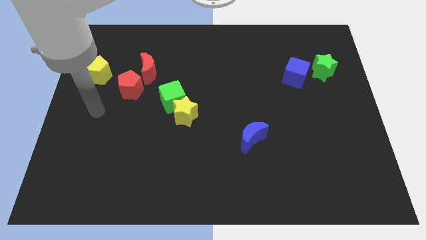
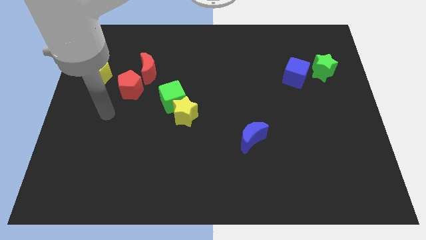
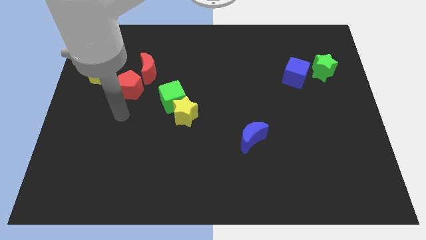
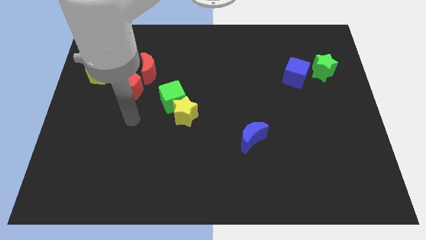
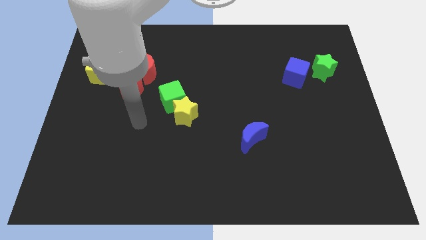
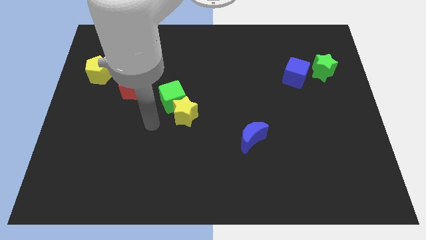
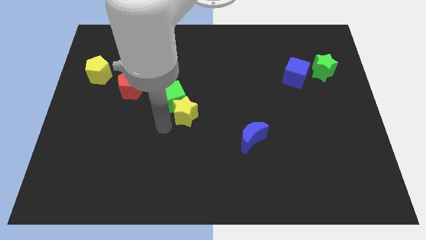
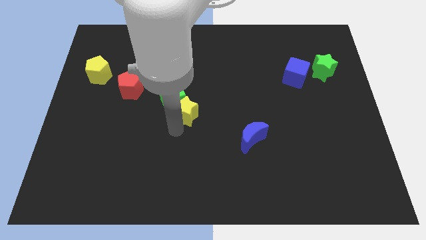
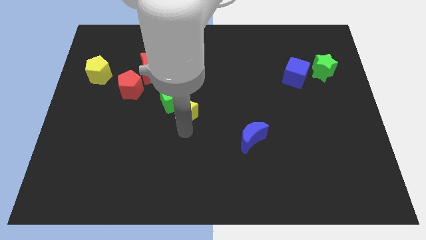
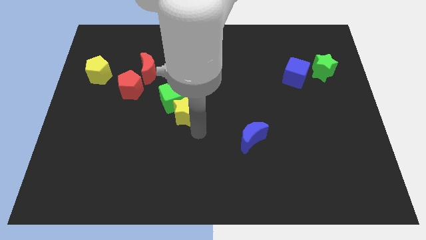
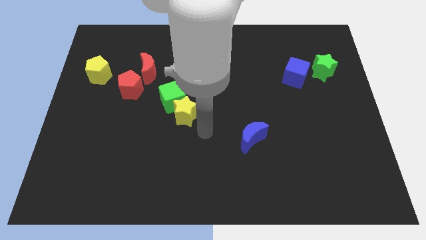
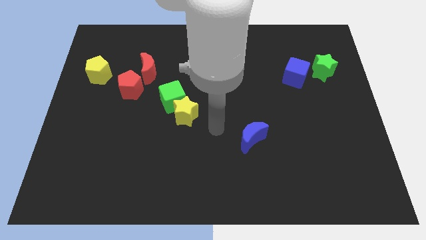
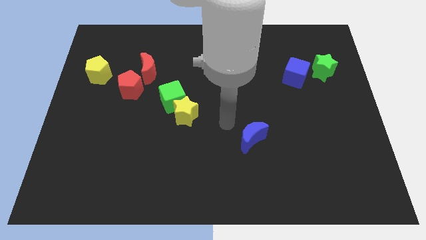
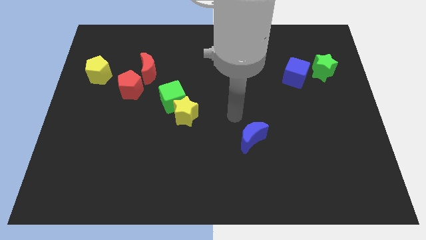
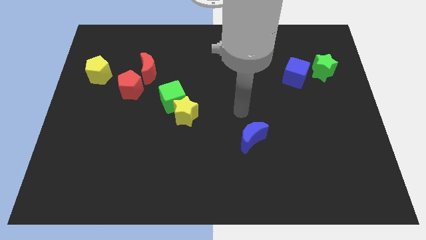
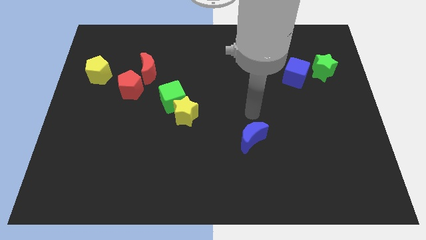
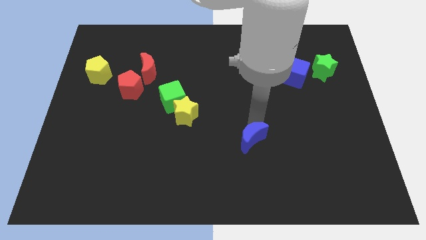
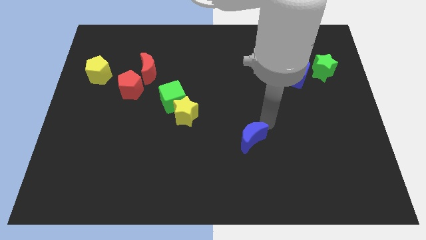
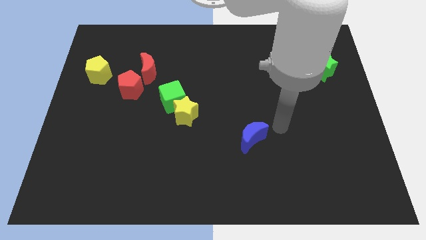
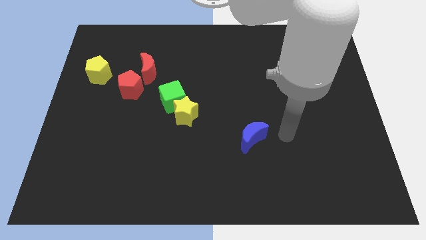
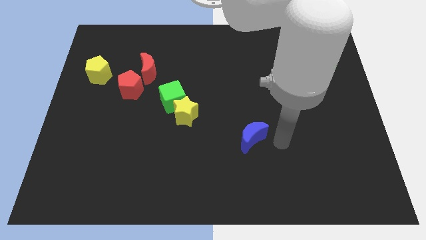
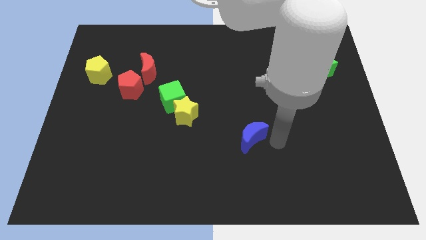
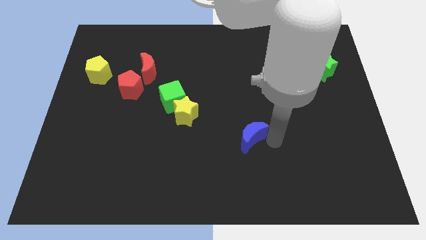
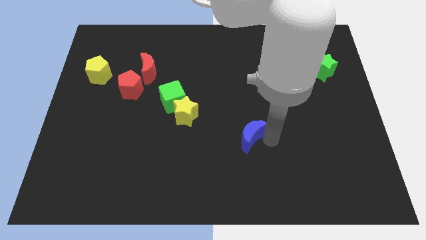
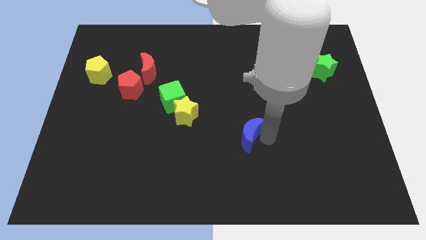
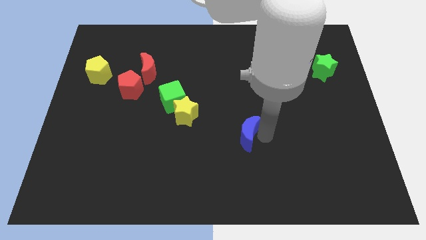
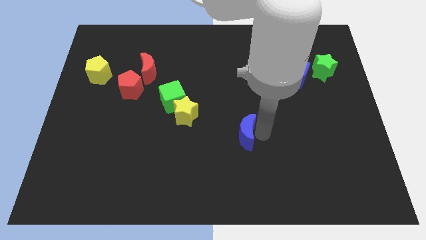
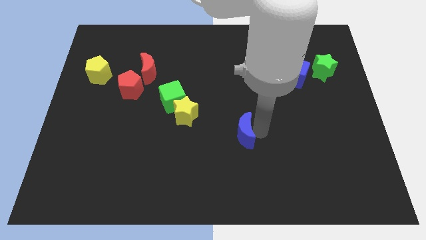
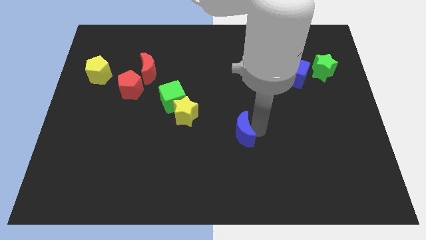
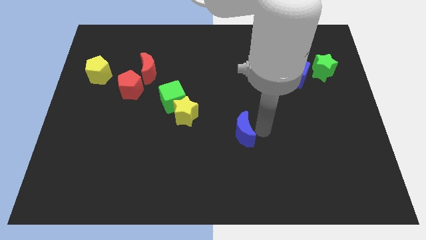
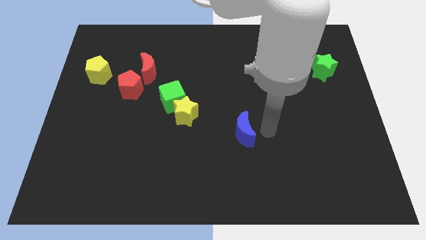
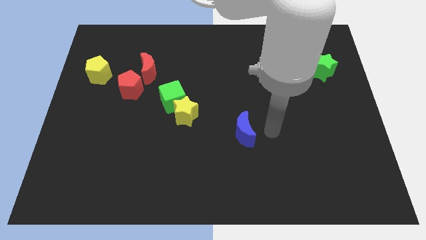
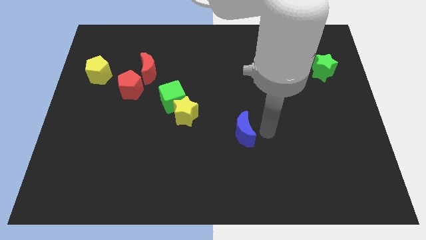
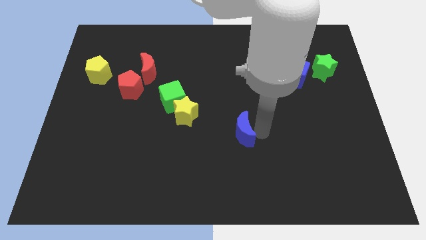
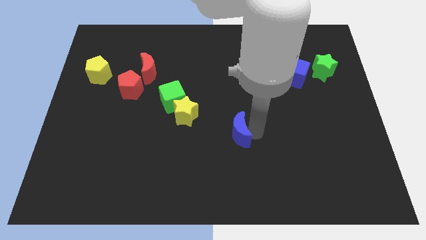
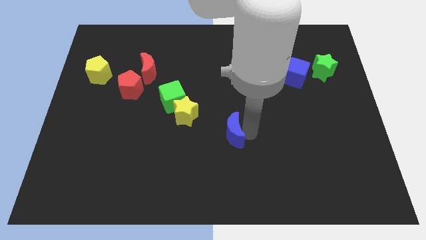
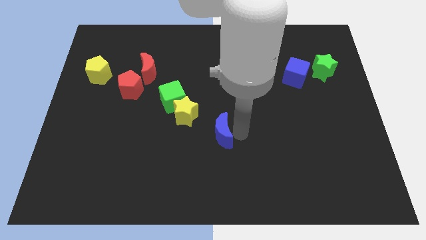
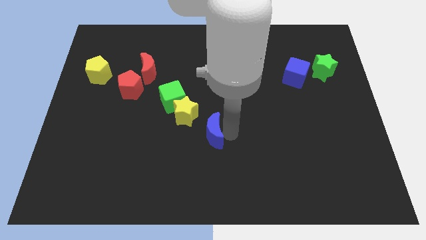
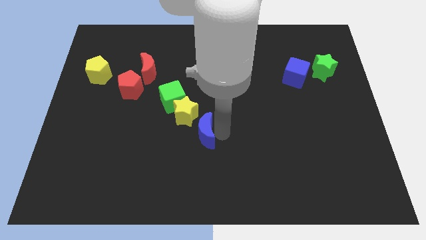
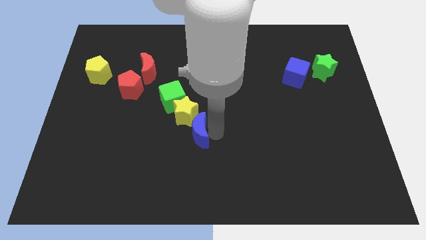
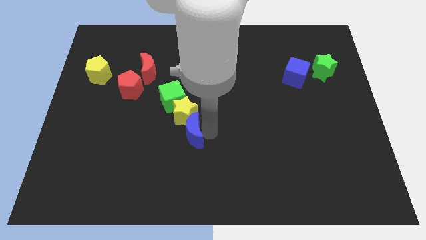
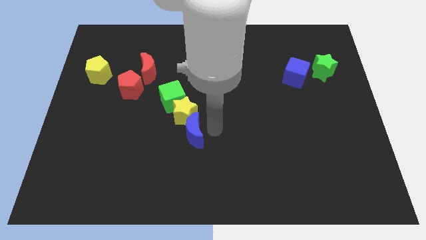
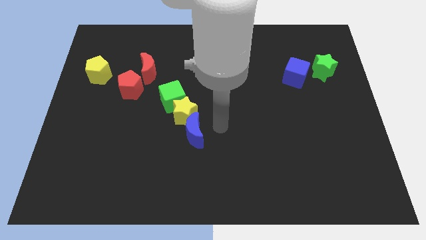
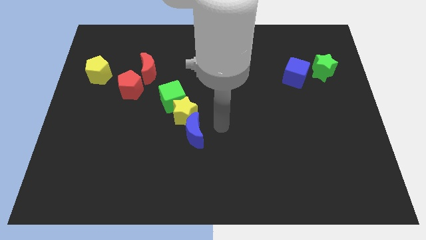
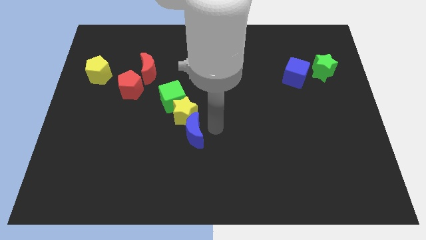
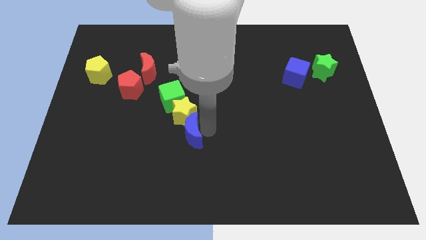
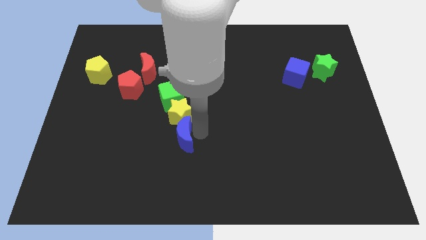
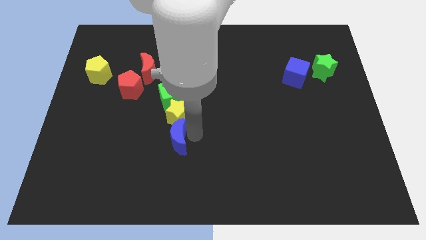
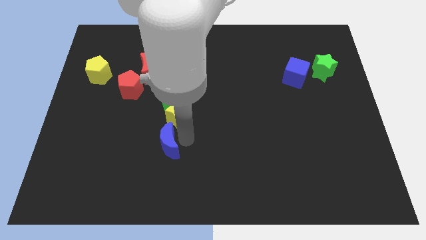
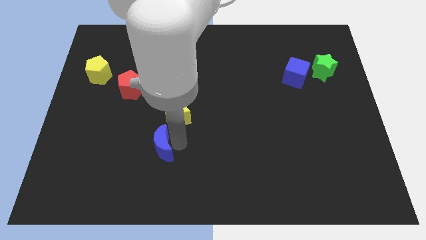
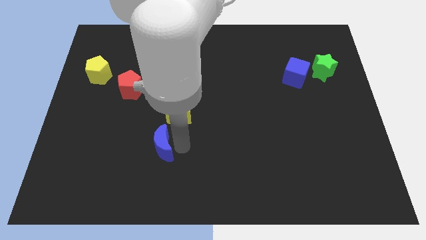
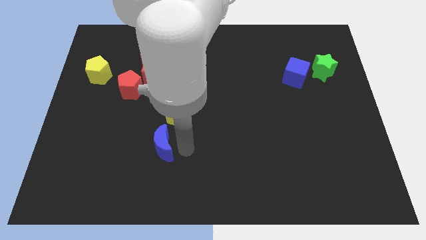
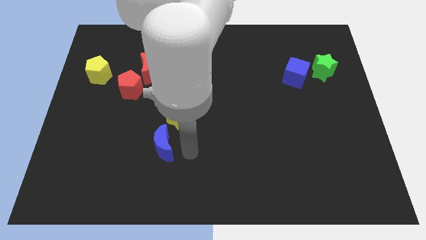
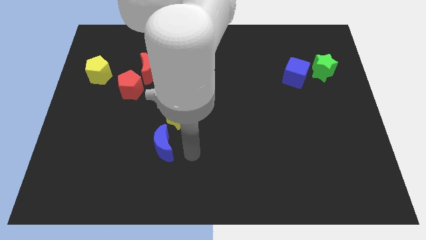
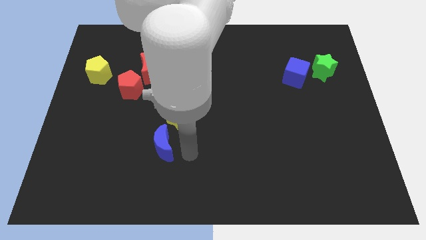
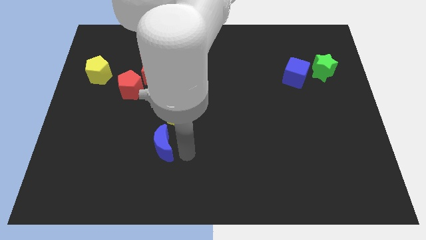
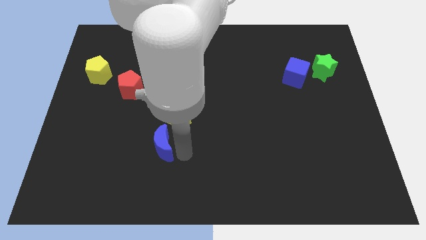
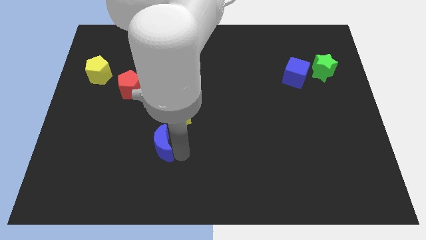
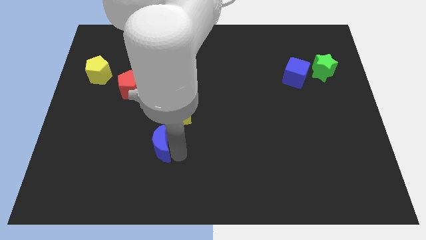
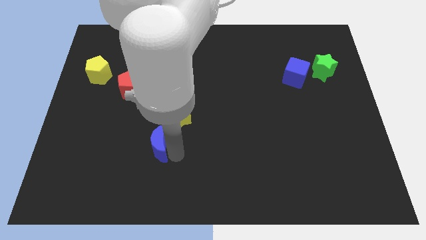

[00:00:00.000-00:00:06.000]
move the blue moon to the left

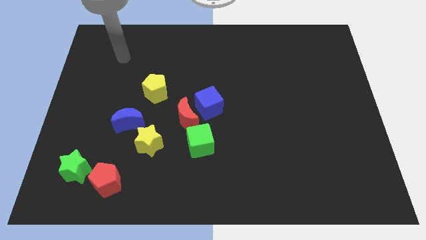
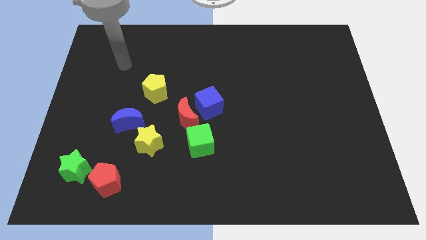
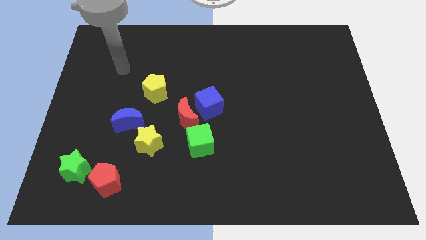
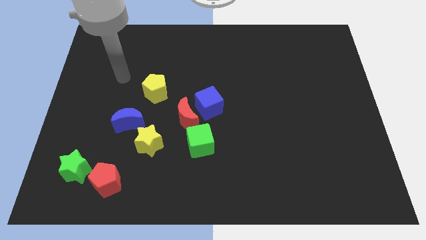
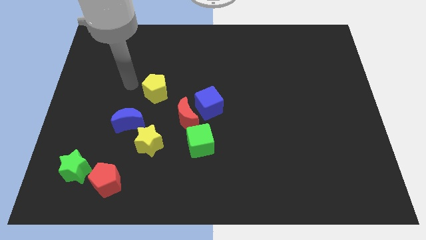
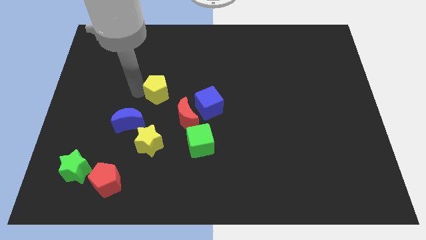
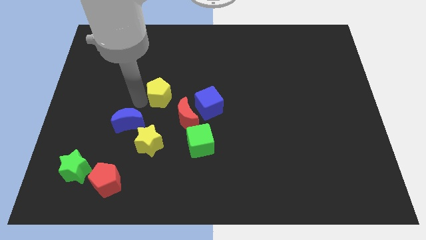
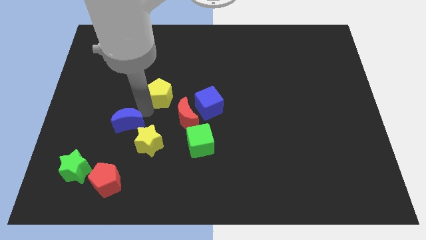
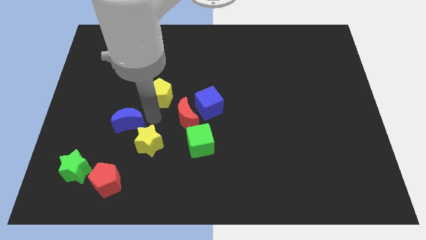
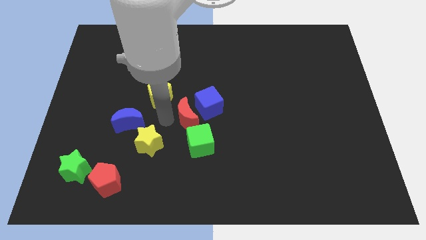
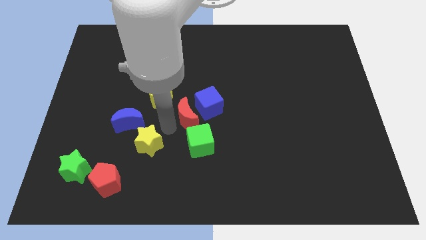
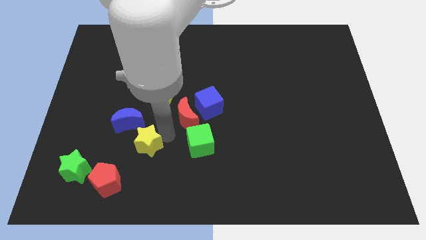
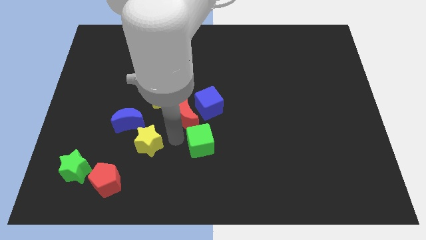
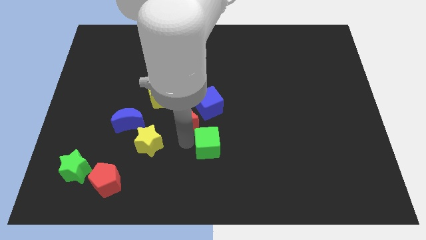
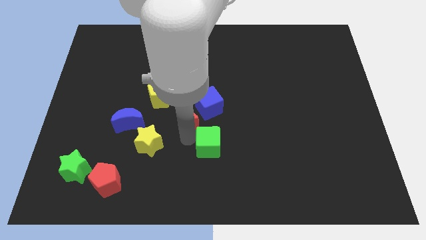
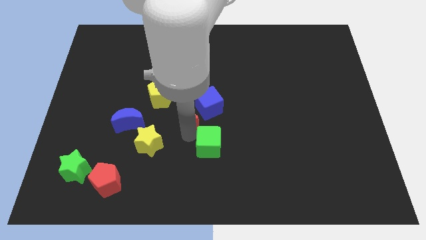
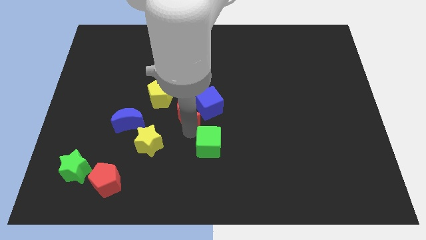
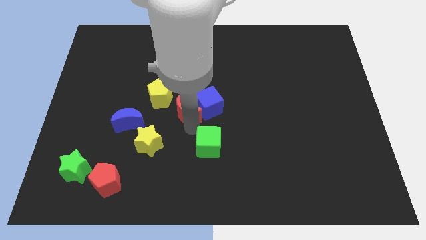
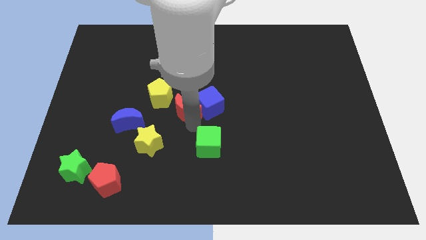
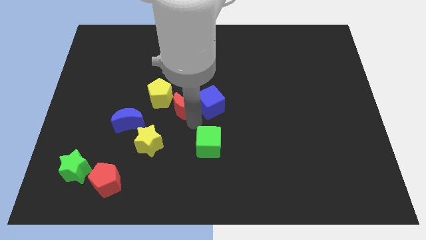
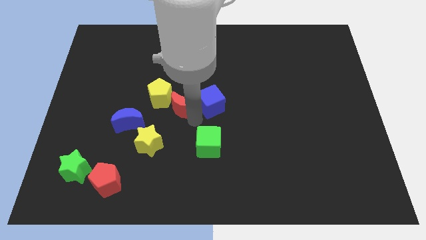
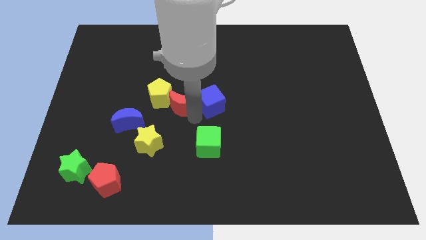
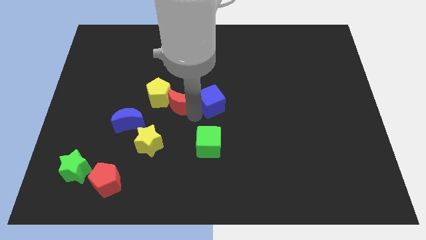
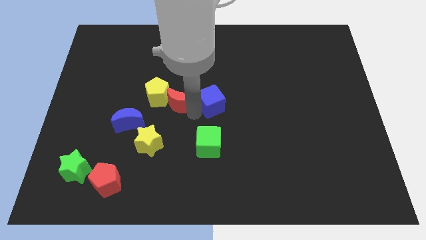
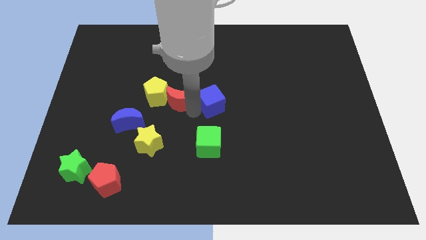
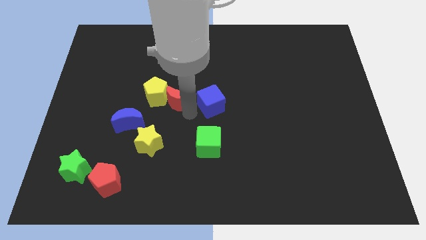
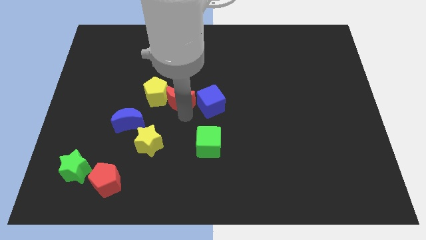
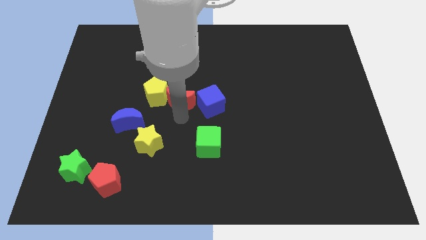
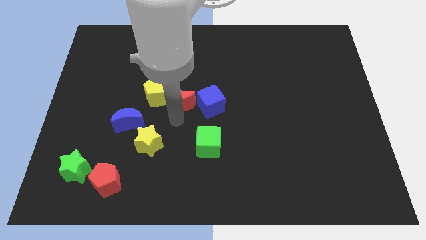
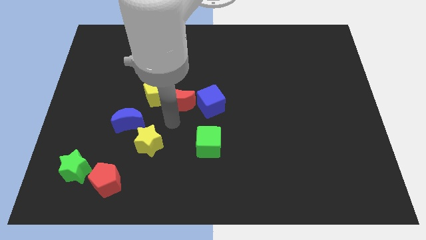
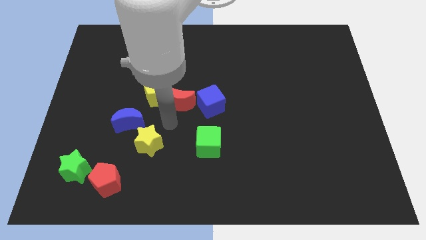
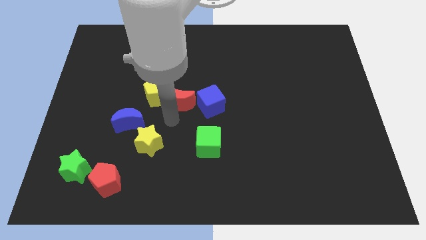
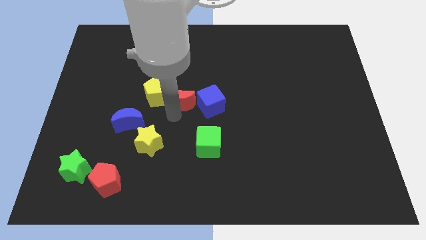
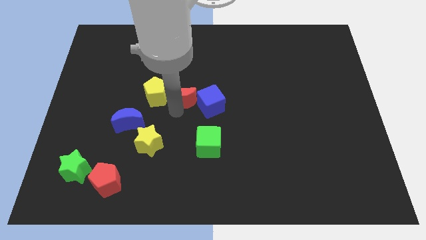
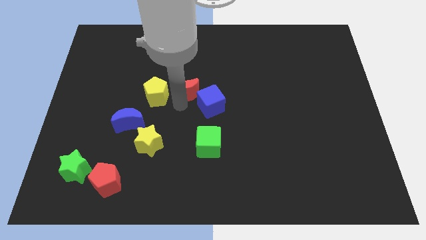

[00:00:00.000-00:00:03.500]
slightly move the red moon upwards
